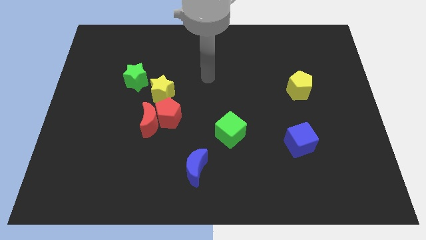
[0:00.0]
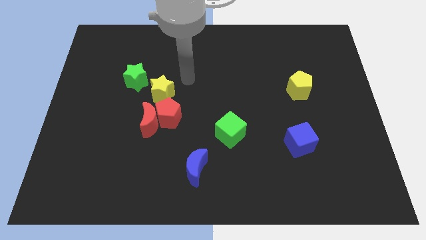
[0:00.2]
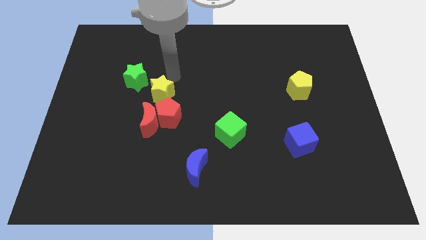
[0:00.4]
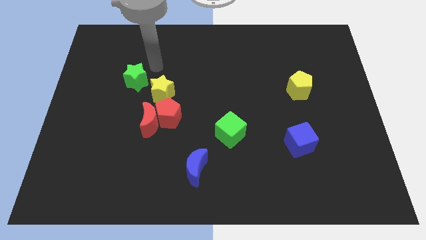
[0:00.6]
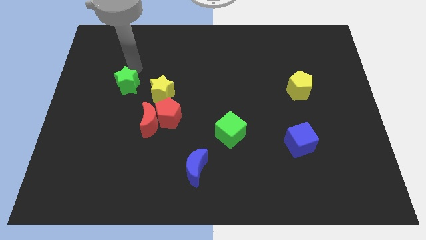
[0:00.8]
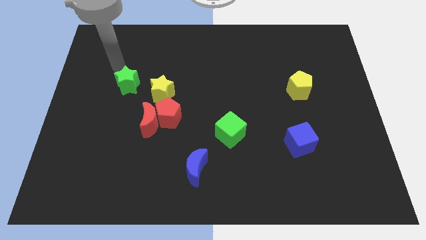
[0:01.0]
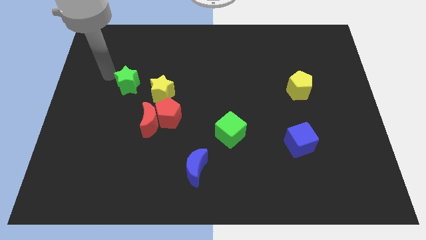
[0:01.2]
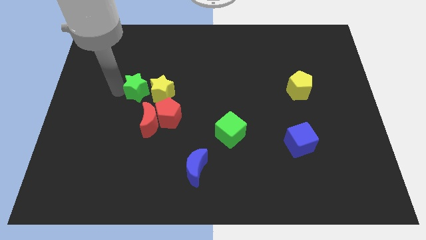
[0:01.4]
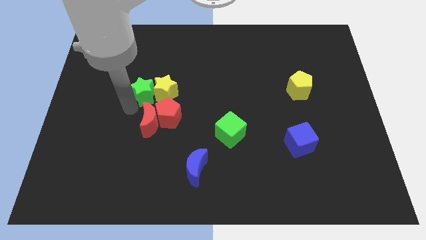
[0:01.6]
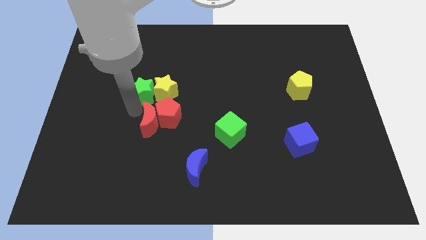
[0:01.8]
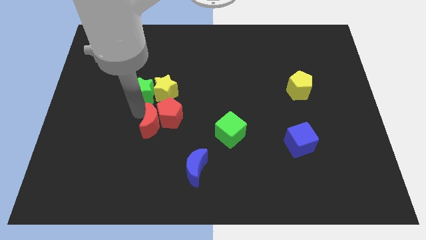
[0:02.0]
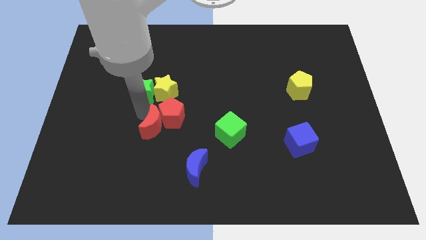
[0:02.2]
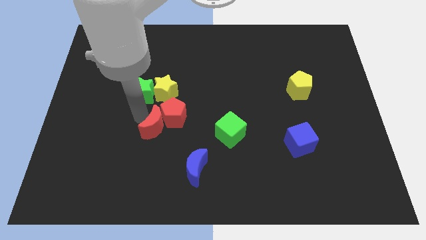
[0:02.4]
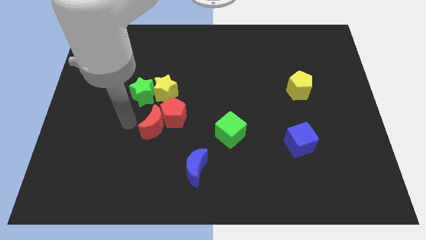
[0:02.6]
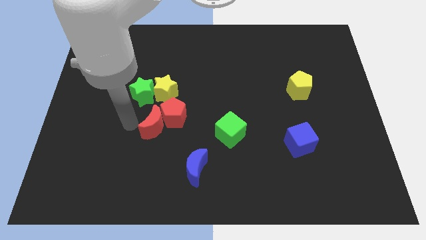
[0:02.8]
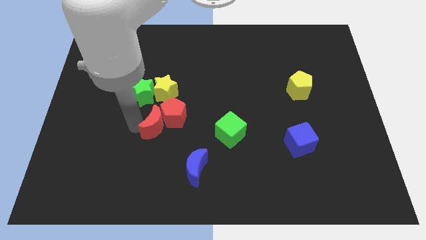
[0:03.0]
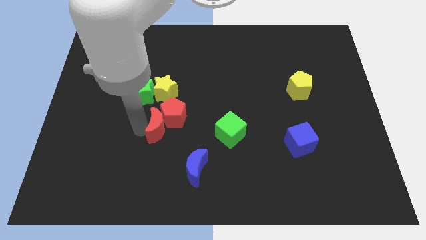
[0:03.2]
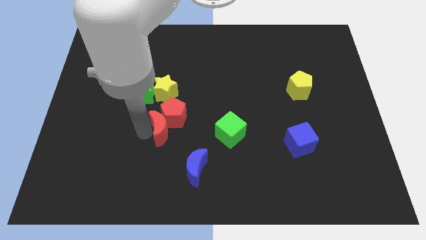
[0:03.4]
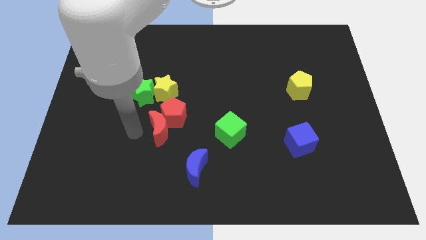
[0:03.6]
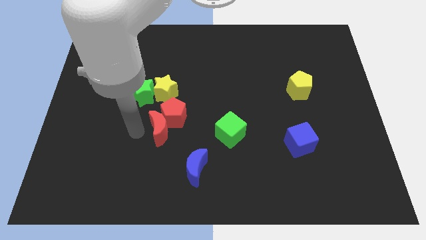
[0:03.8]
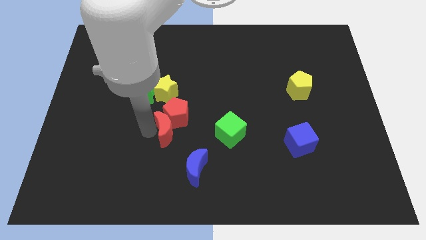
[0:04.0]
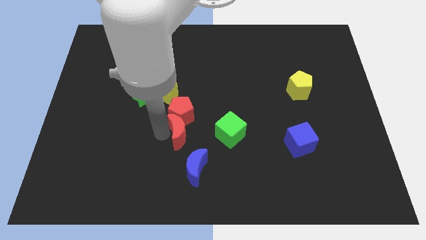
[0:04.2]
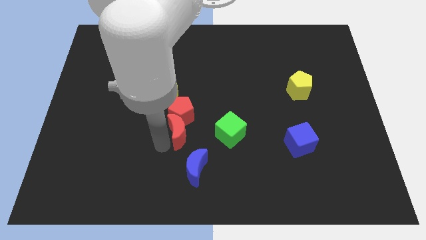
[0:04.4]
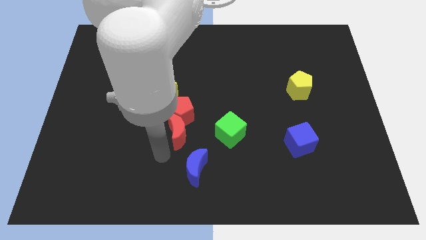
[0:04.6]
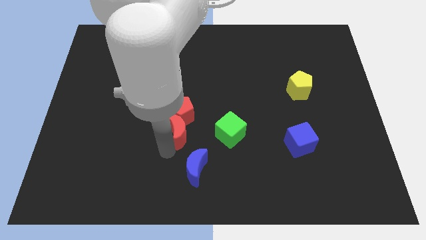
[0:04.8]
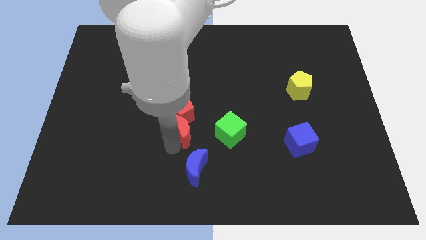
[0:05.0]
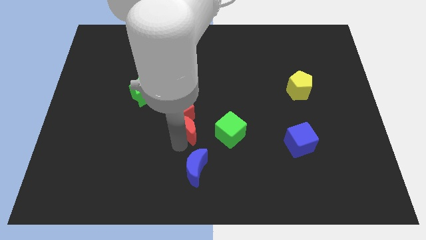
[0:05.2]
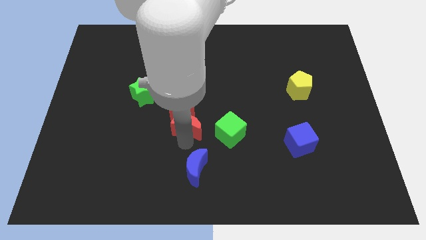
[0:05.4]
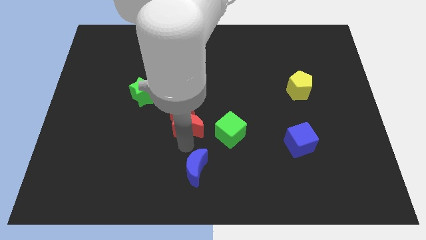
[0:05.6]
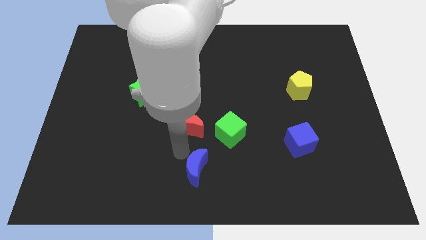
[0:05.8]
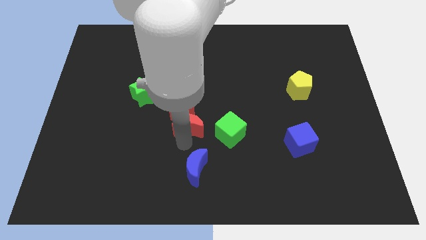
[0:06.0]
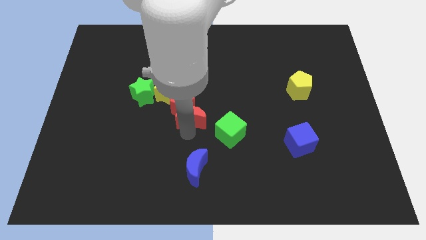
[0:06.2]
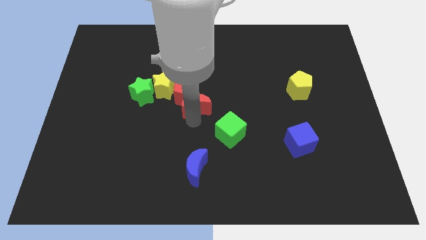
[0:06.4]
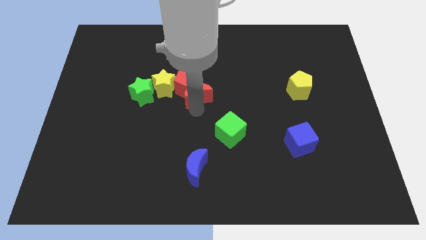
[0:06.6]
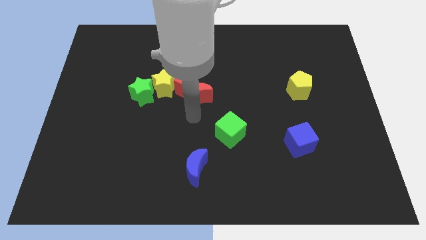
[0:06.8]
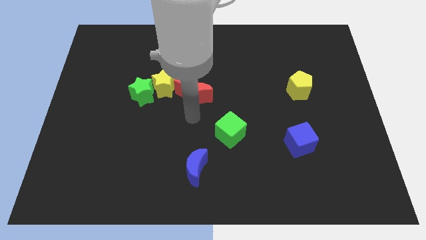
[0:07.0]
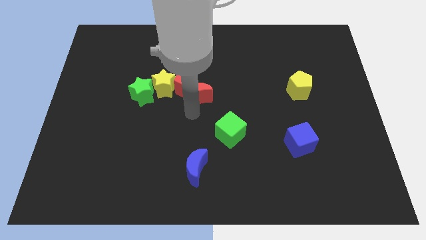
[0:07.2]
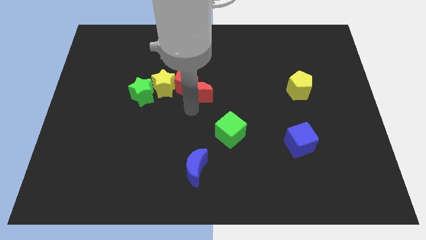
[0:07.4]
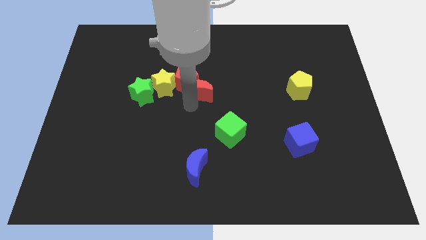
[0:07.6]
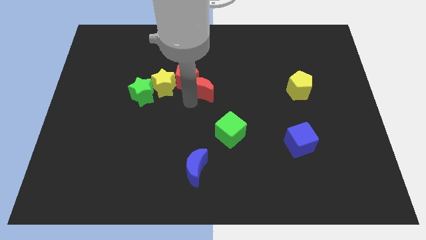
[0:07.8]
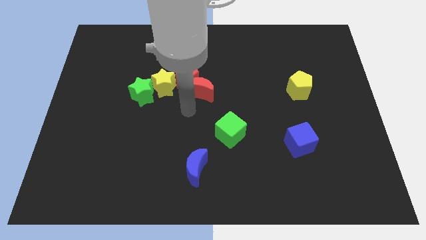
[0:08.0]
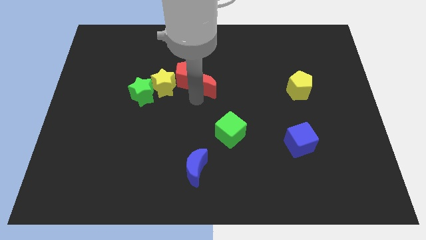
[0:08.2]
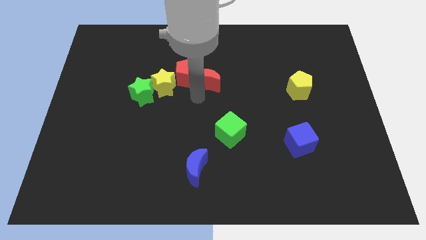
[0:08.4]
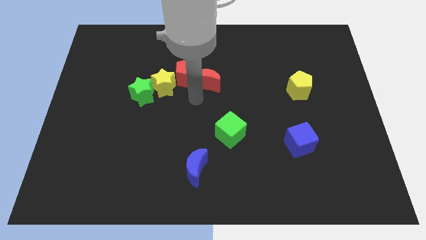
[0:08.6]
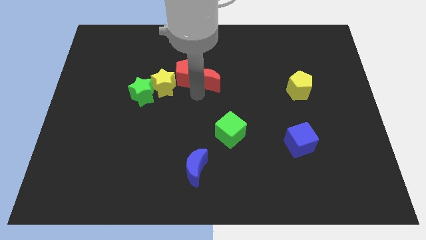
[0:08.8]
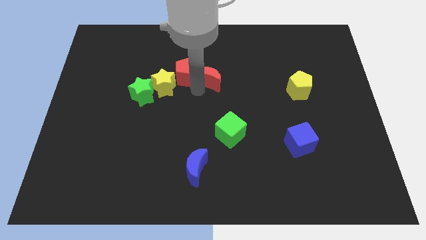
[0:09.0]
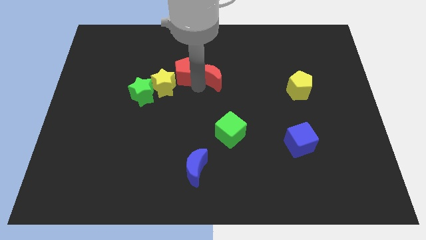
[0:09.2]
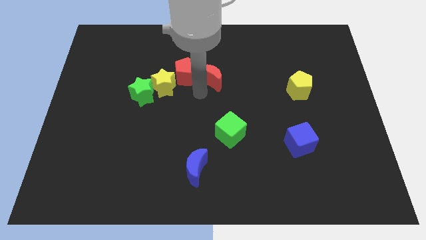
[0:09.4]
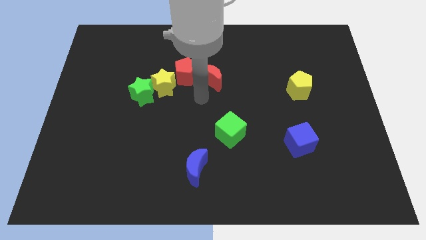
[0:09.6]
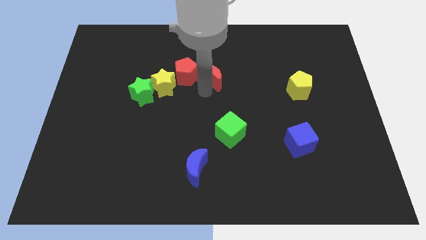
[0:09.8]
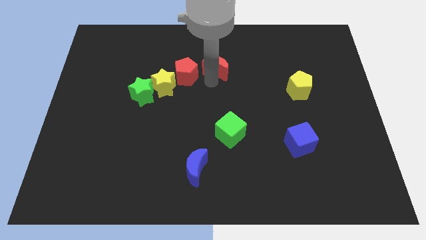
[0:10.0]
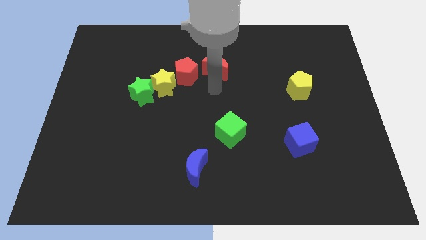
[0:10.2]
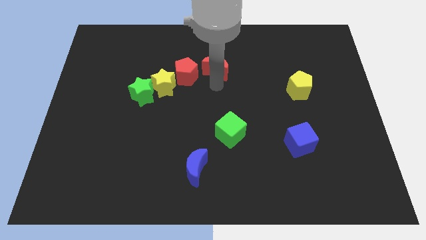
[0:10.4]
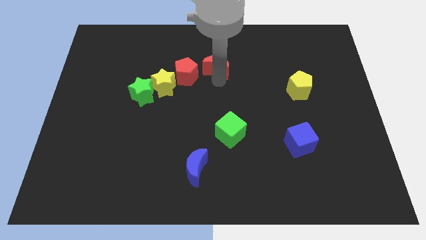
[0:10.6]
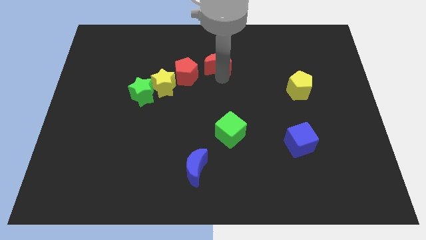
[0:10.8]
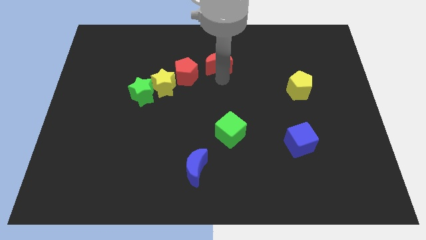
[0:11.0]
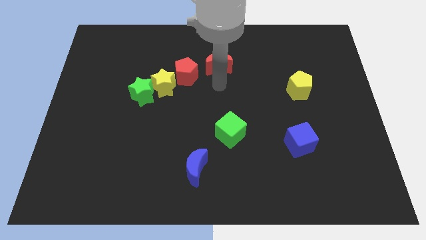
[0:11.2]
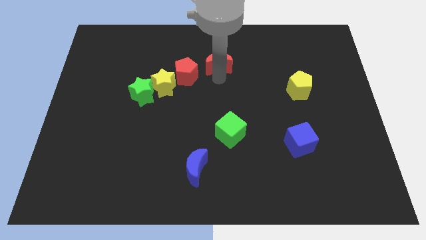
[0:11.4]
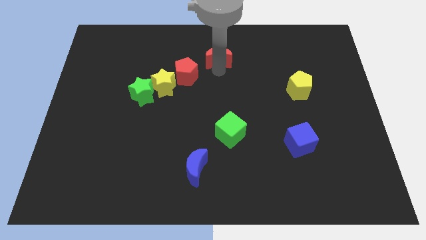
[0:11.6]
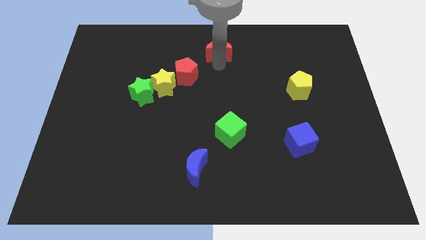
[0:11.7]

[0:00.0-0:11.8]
put the red moon to the towards your base
